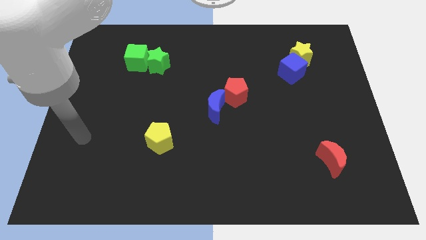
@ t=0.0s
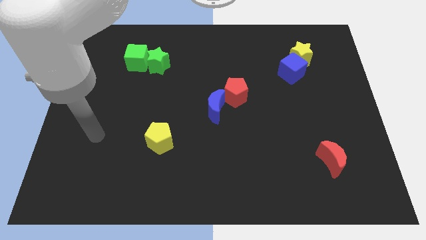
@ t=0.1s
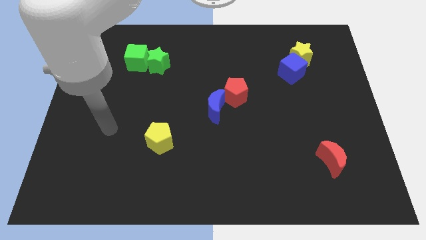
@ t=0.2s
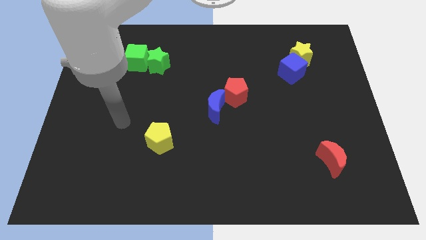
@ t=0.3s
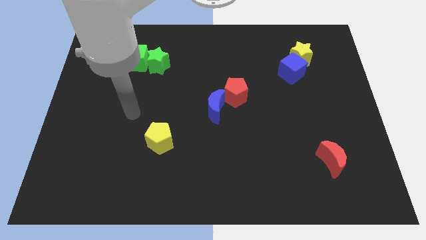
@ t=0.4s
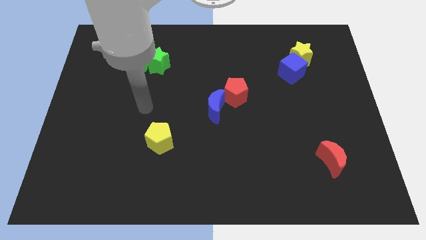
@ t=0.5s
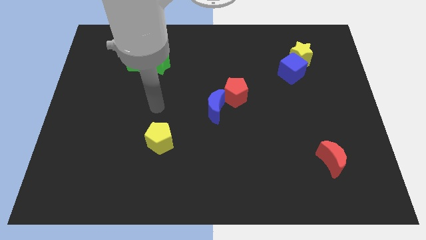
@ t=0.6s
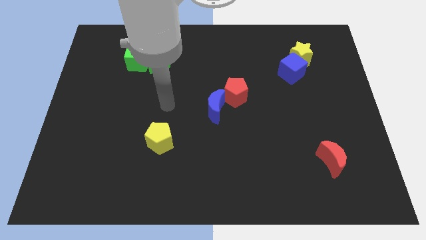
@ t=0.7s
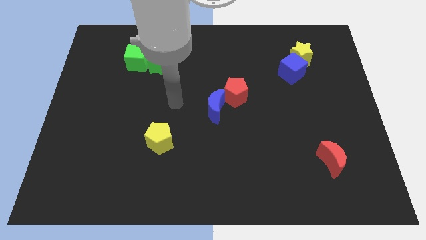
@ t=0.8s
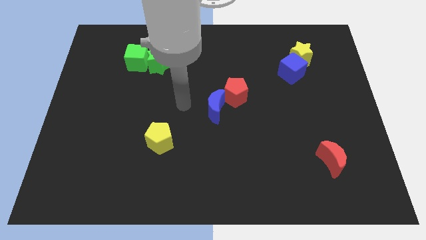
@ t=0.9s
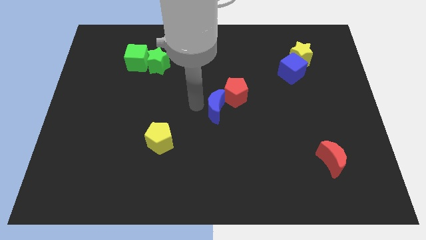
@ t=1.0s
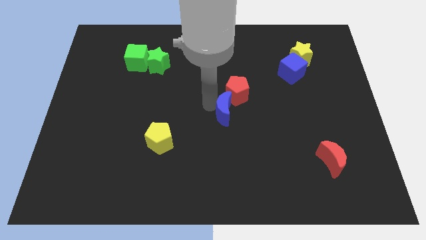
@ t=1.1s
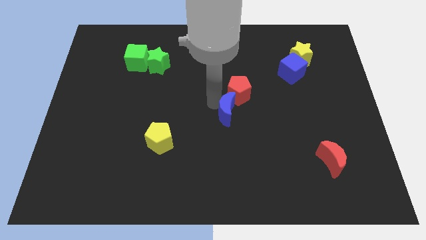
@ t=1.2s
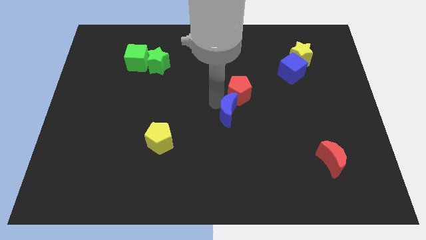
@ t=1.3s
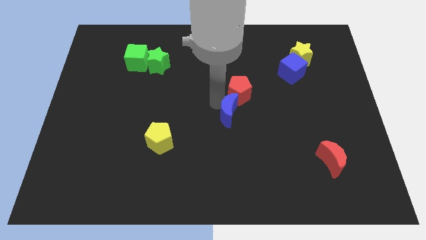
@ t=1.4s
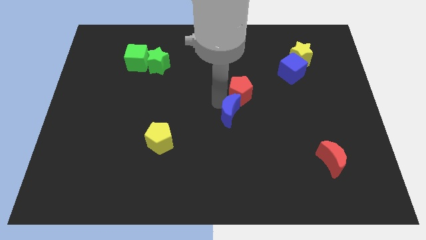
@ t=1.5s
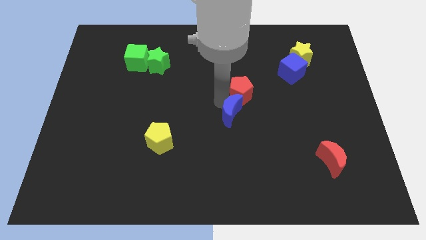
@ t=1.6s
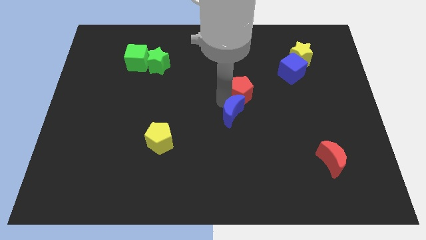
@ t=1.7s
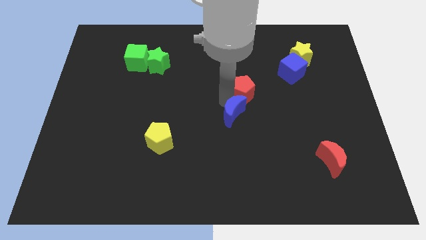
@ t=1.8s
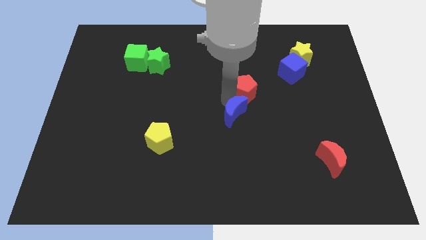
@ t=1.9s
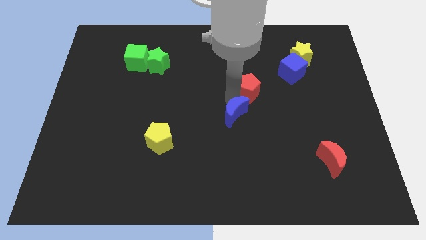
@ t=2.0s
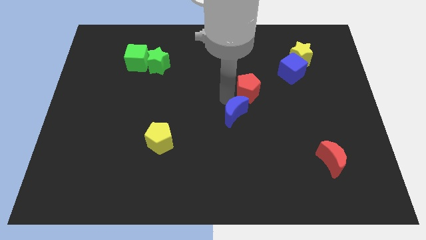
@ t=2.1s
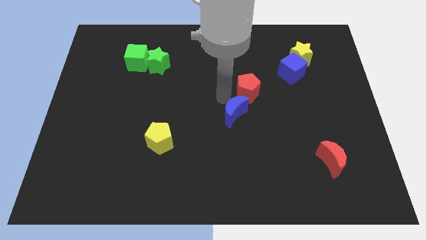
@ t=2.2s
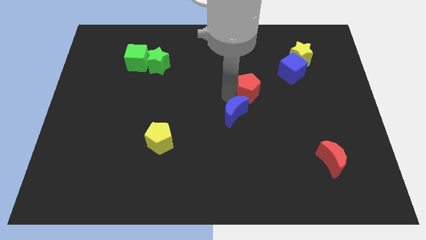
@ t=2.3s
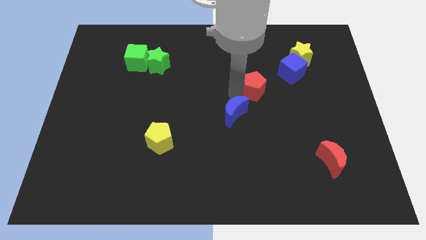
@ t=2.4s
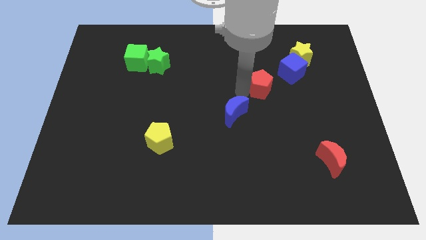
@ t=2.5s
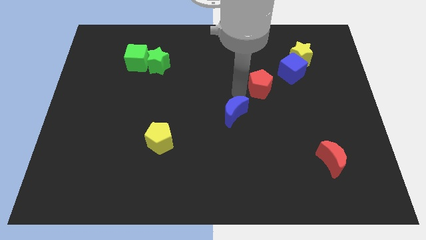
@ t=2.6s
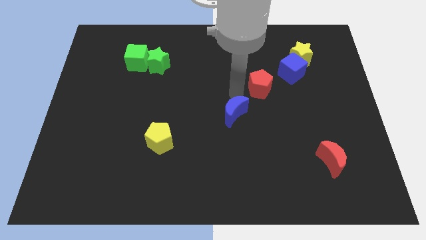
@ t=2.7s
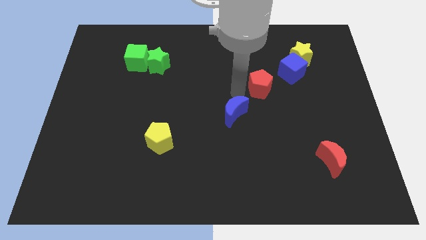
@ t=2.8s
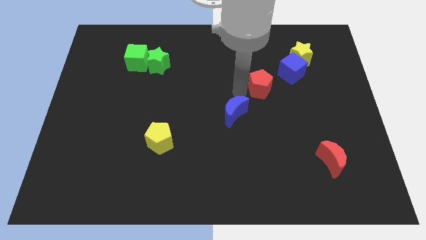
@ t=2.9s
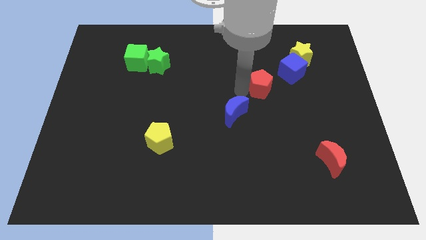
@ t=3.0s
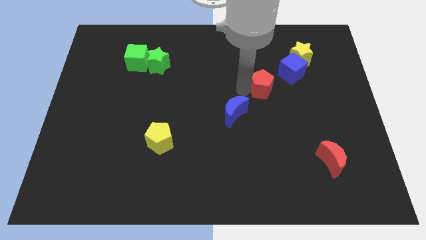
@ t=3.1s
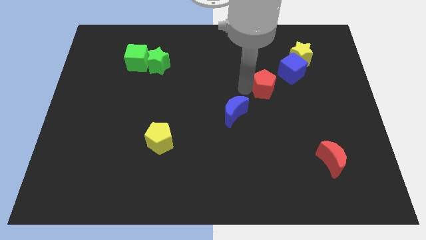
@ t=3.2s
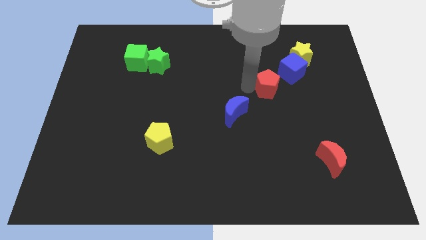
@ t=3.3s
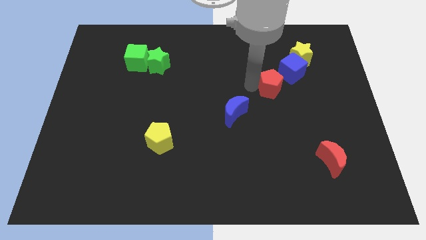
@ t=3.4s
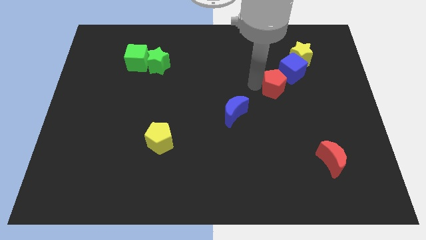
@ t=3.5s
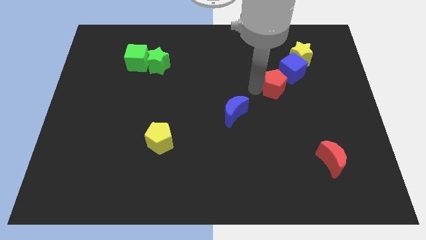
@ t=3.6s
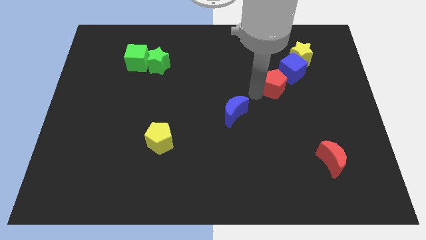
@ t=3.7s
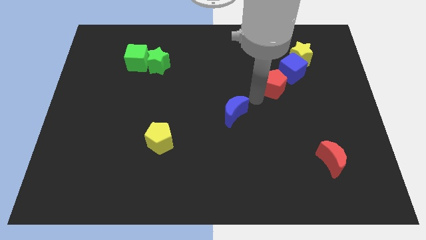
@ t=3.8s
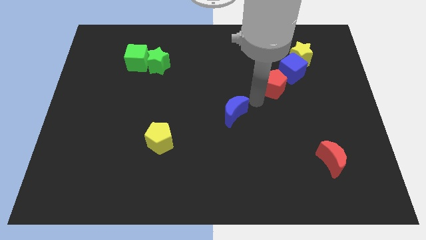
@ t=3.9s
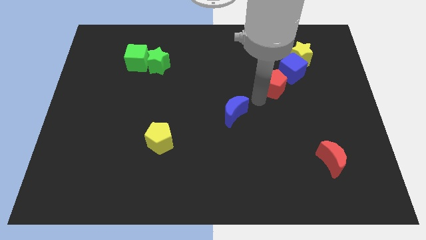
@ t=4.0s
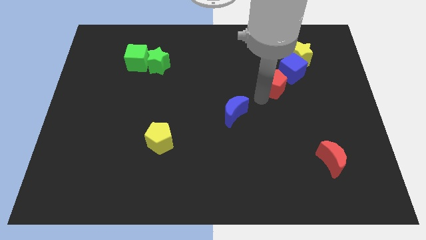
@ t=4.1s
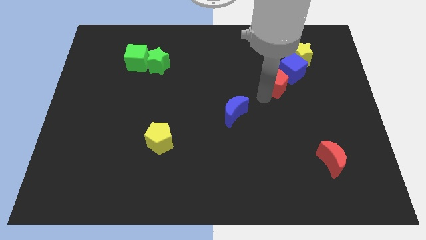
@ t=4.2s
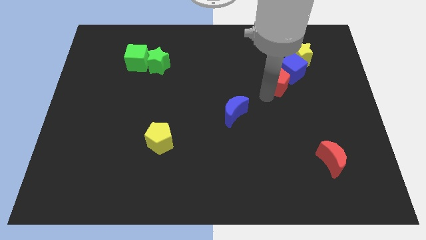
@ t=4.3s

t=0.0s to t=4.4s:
slide the red pentagon next to the blue cube

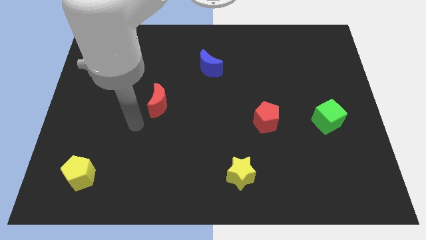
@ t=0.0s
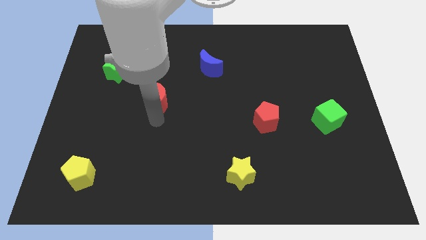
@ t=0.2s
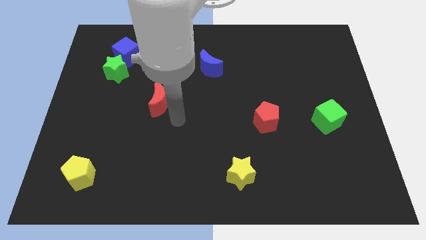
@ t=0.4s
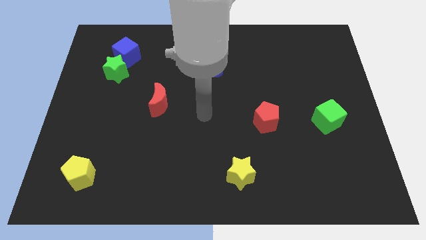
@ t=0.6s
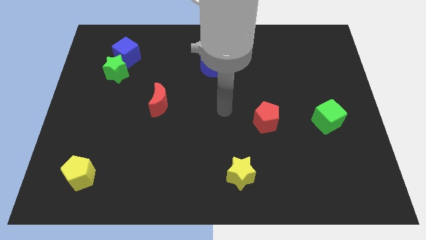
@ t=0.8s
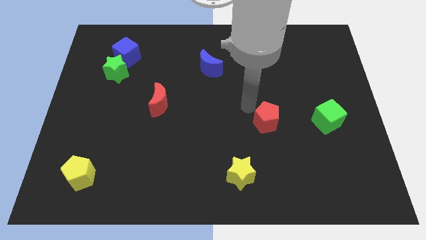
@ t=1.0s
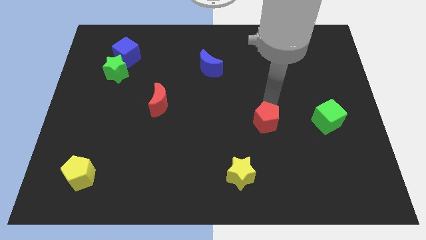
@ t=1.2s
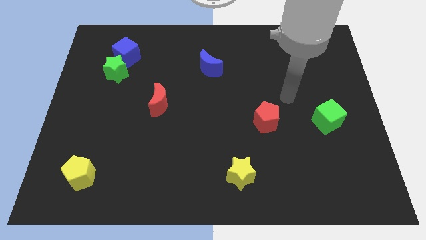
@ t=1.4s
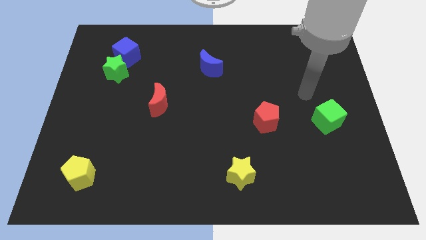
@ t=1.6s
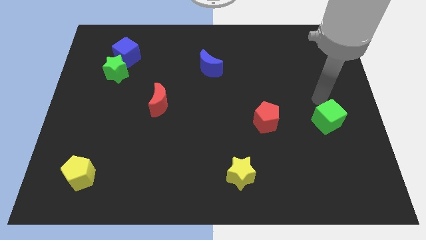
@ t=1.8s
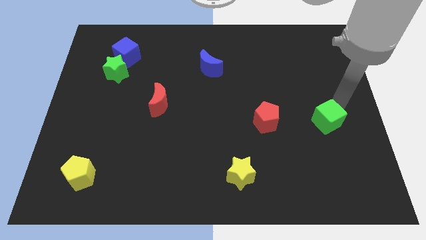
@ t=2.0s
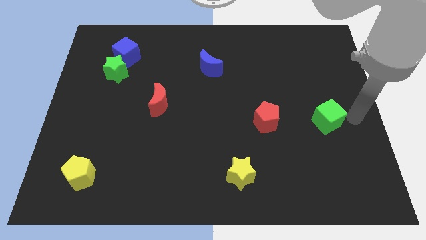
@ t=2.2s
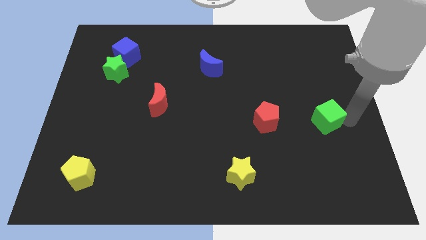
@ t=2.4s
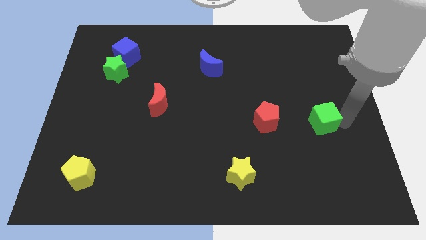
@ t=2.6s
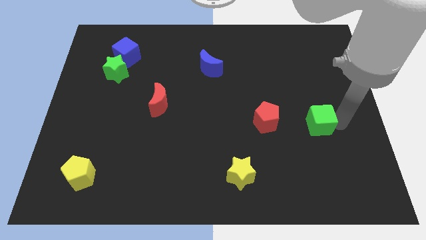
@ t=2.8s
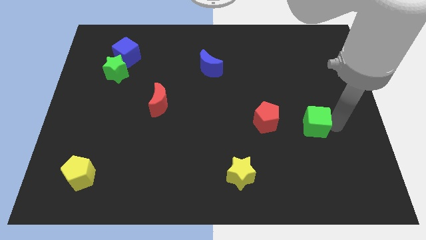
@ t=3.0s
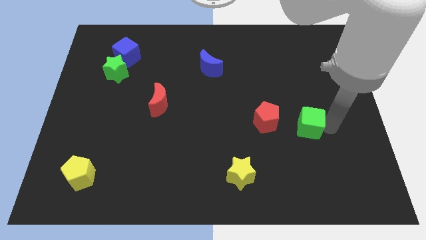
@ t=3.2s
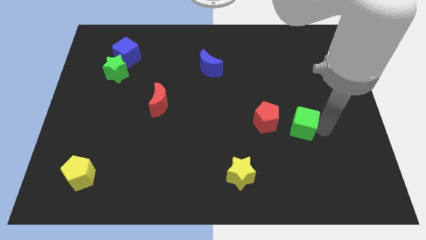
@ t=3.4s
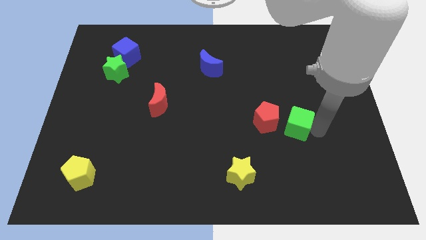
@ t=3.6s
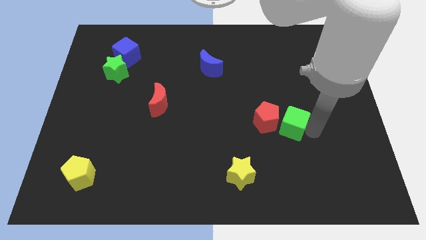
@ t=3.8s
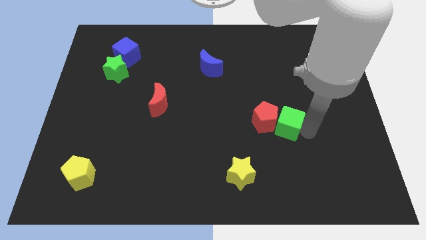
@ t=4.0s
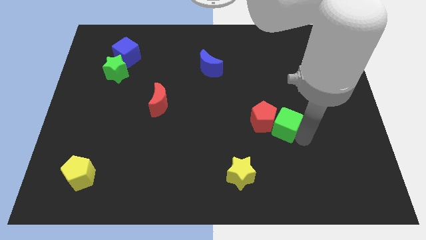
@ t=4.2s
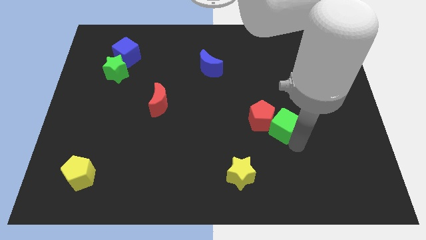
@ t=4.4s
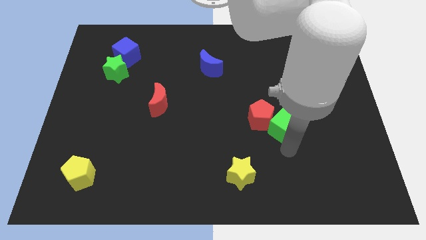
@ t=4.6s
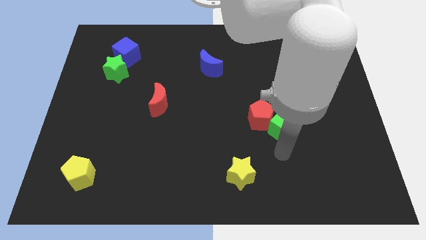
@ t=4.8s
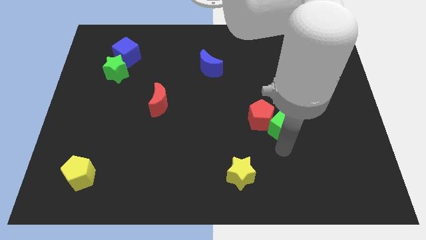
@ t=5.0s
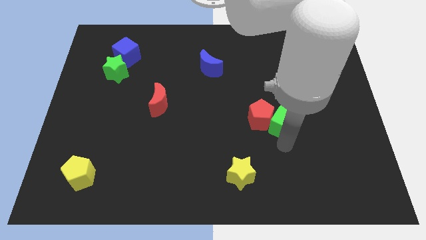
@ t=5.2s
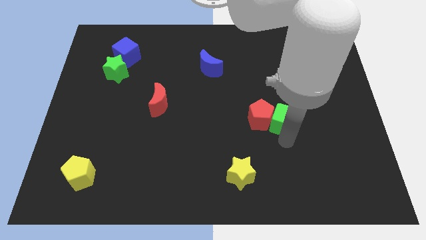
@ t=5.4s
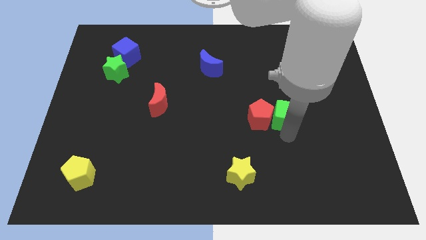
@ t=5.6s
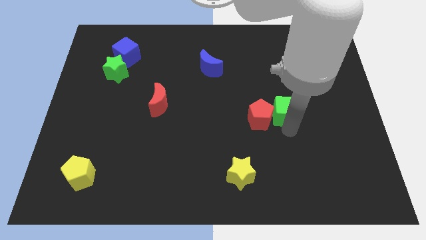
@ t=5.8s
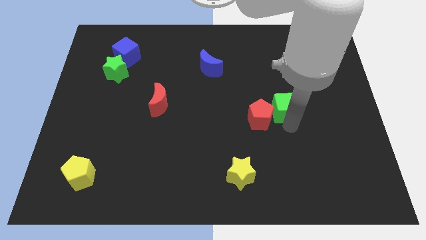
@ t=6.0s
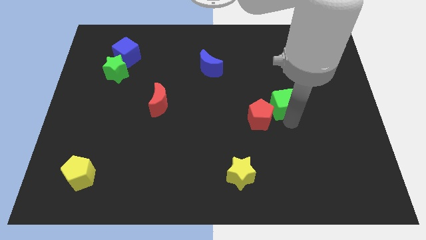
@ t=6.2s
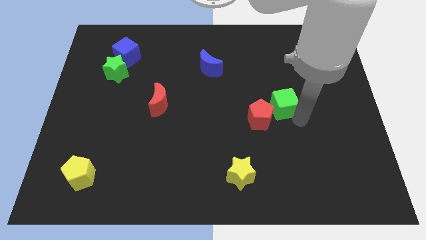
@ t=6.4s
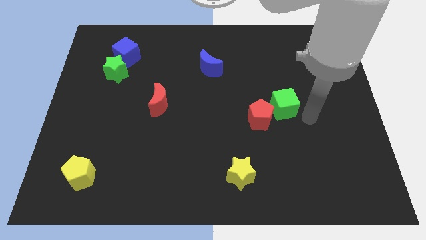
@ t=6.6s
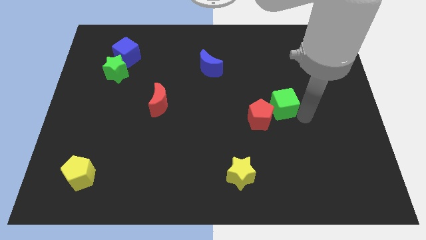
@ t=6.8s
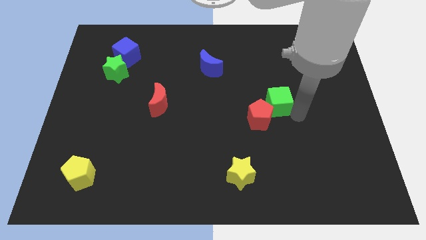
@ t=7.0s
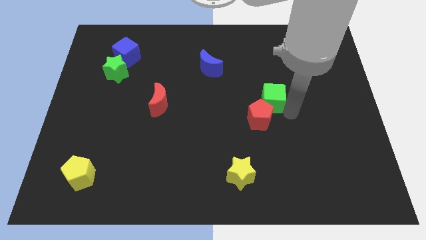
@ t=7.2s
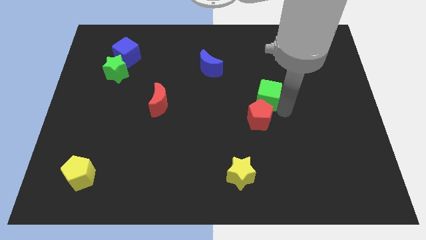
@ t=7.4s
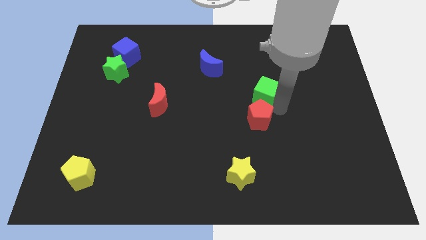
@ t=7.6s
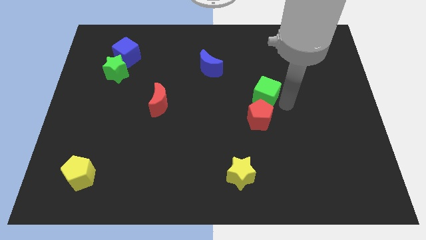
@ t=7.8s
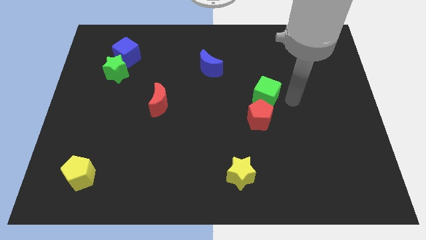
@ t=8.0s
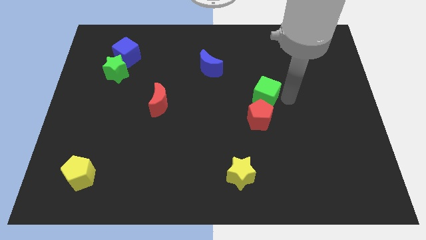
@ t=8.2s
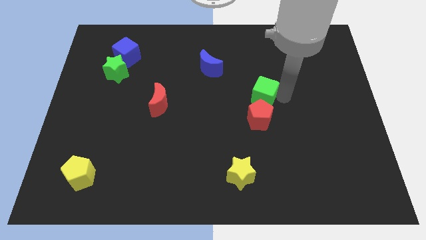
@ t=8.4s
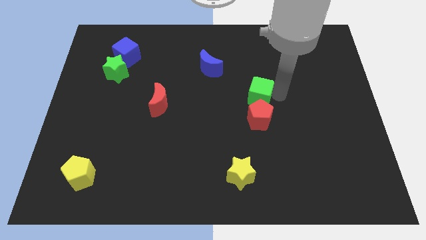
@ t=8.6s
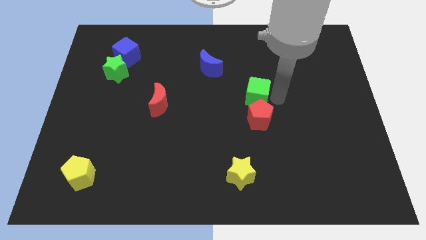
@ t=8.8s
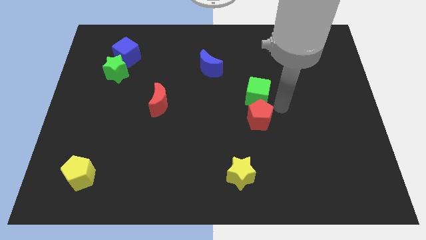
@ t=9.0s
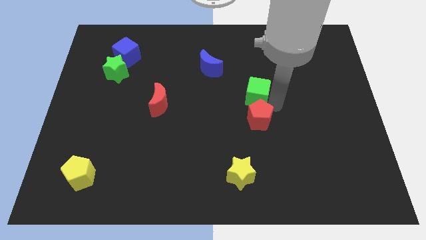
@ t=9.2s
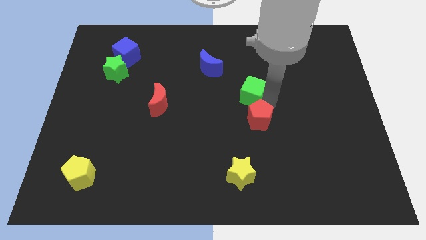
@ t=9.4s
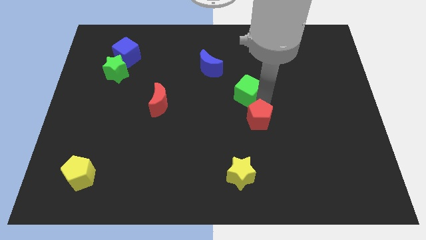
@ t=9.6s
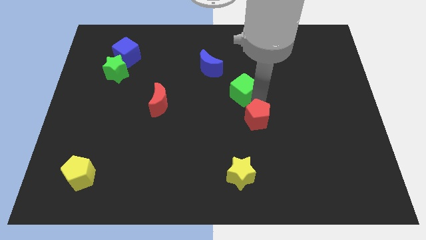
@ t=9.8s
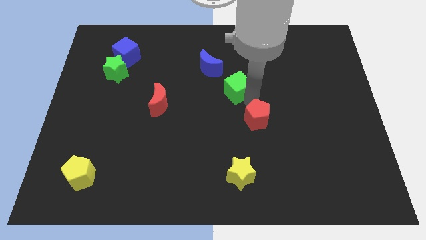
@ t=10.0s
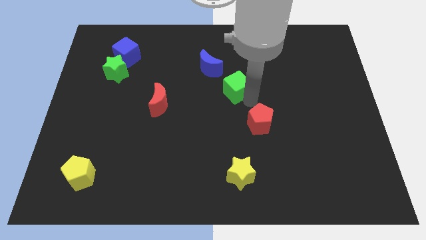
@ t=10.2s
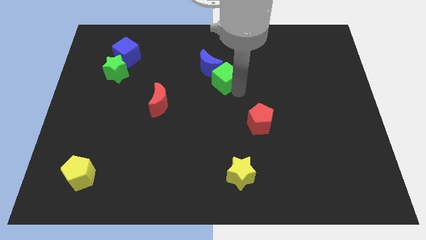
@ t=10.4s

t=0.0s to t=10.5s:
move the green cube next to the blue moon
